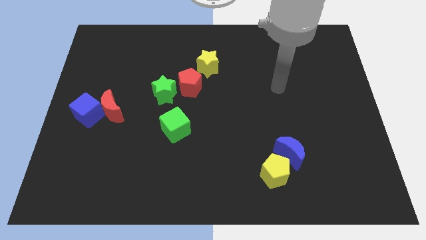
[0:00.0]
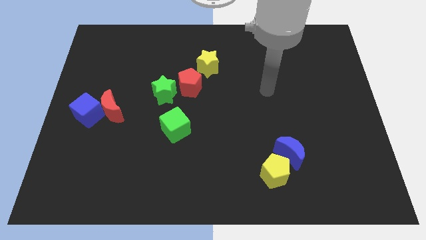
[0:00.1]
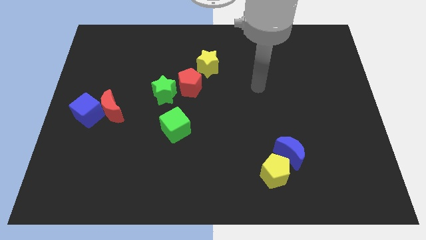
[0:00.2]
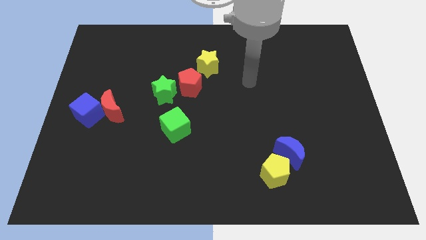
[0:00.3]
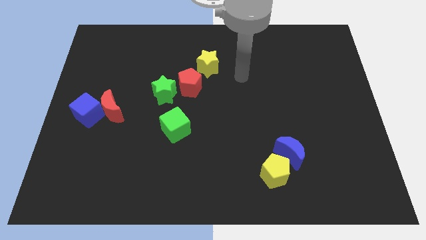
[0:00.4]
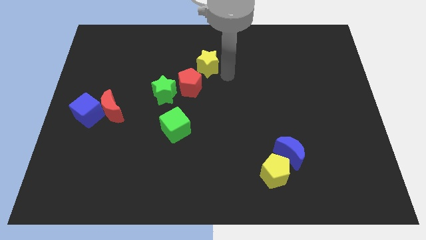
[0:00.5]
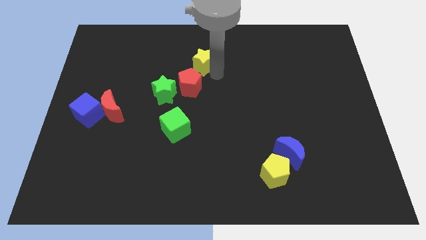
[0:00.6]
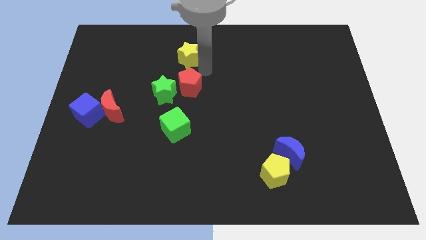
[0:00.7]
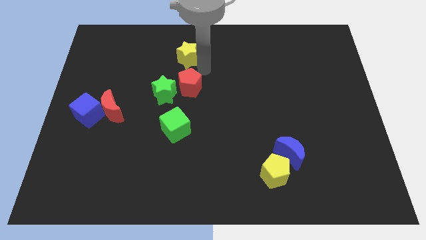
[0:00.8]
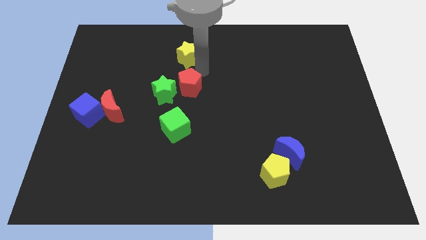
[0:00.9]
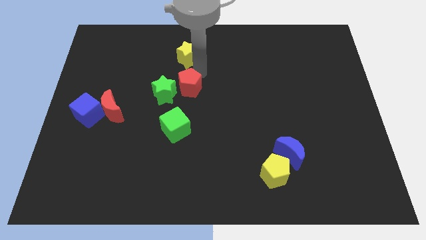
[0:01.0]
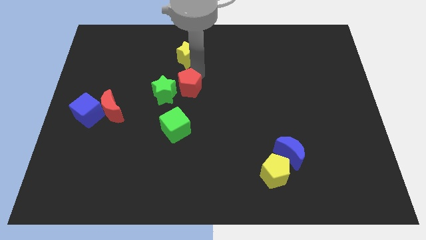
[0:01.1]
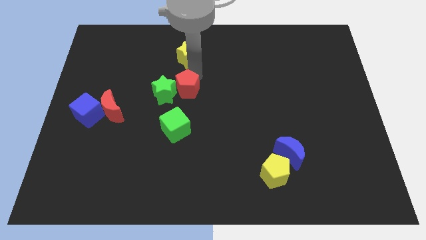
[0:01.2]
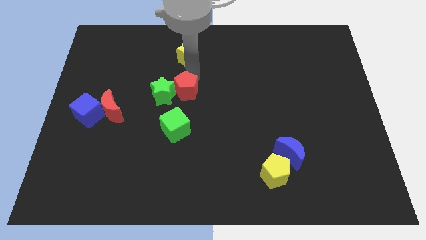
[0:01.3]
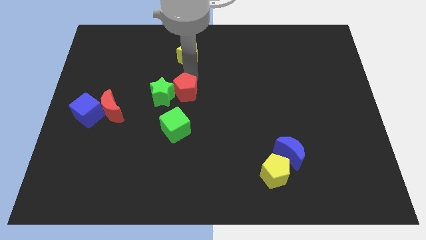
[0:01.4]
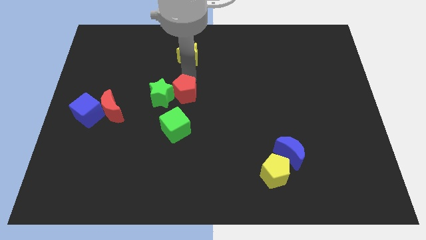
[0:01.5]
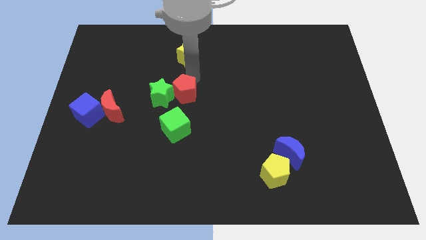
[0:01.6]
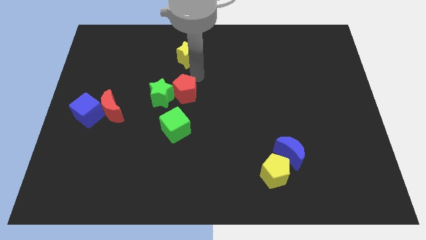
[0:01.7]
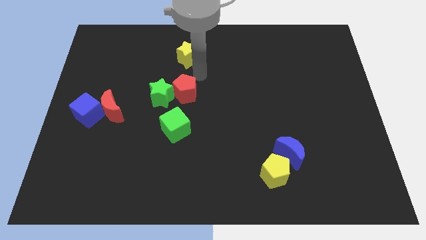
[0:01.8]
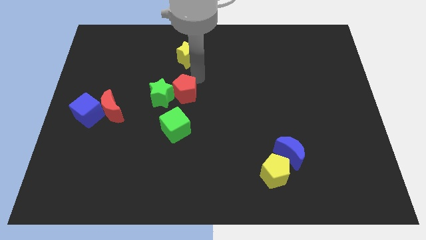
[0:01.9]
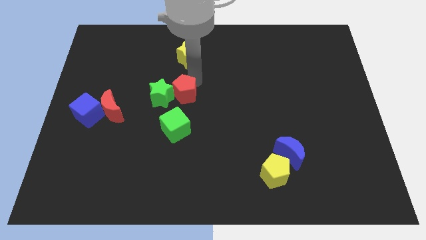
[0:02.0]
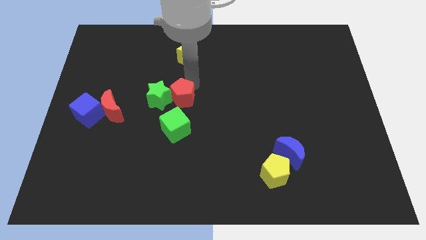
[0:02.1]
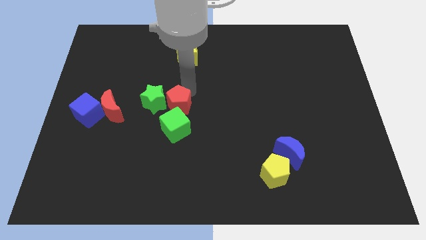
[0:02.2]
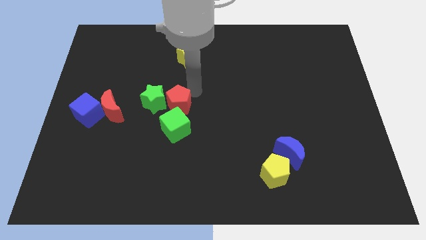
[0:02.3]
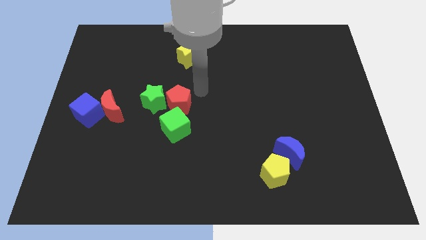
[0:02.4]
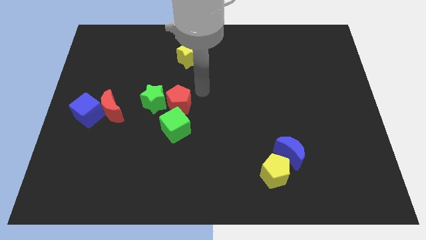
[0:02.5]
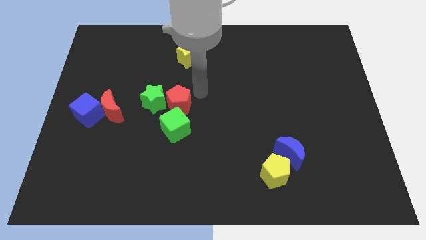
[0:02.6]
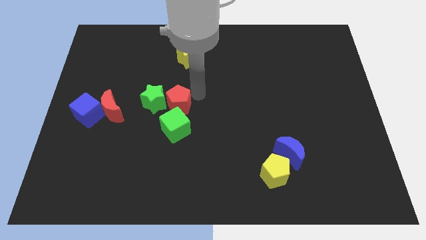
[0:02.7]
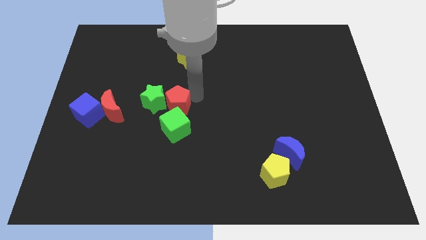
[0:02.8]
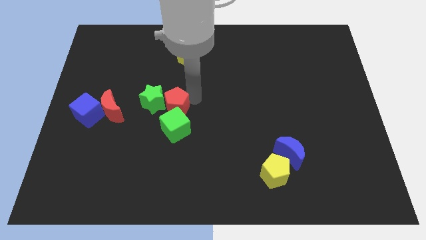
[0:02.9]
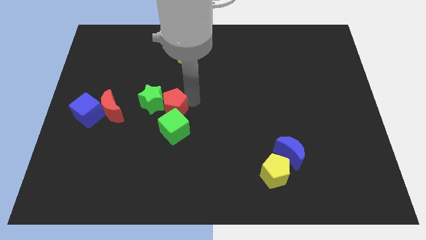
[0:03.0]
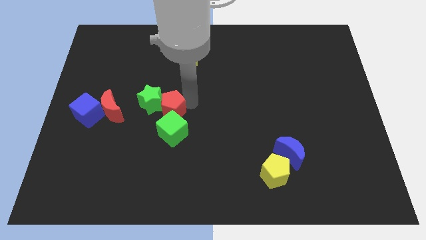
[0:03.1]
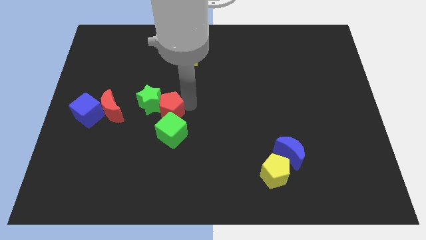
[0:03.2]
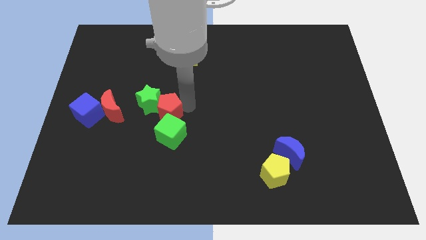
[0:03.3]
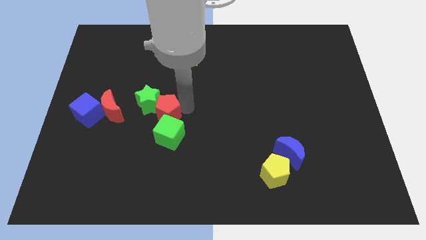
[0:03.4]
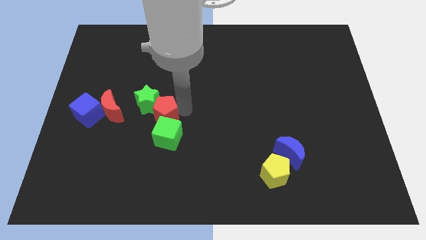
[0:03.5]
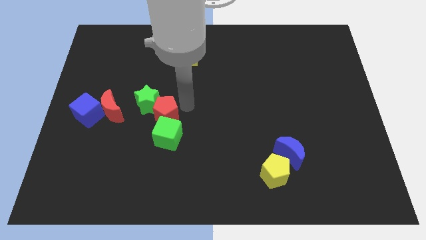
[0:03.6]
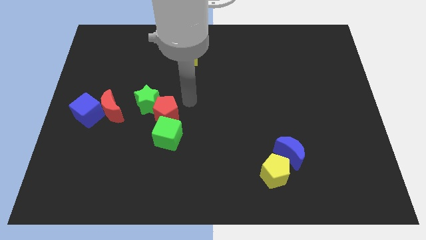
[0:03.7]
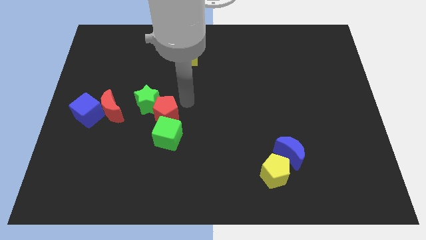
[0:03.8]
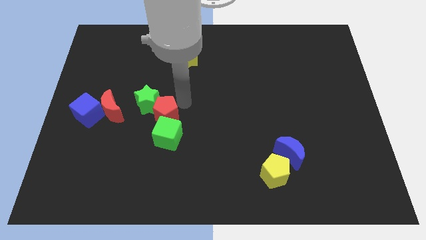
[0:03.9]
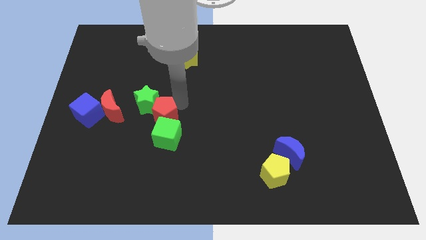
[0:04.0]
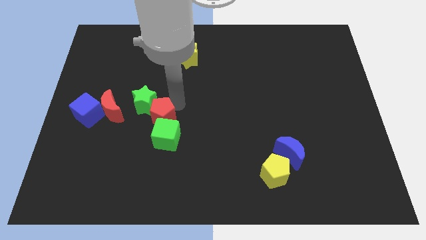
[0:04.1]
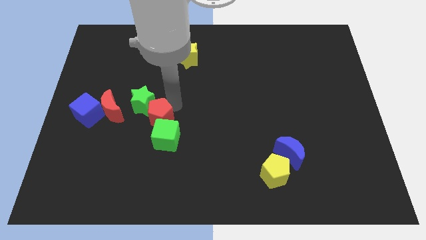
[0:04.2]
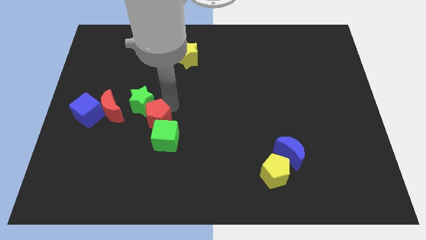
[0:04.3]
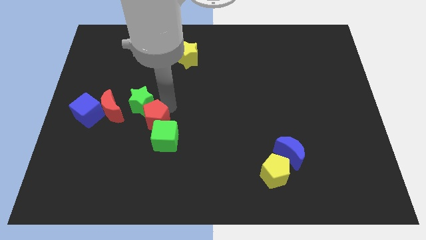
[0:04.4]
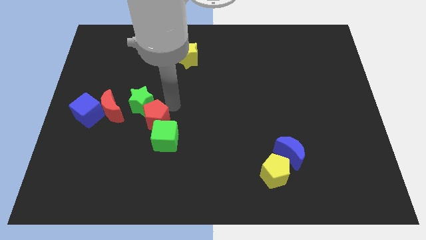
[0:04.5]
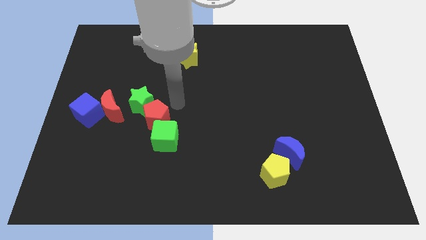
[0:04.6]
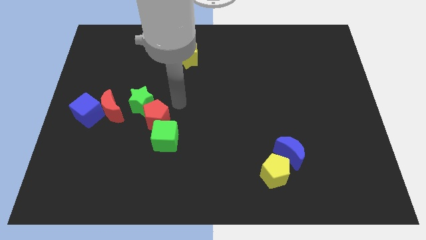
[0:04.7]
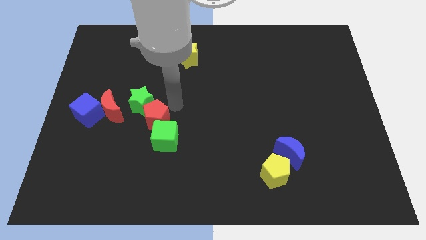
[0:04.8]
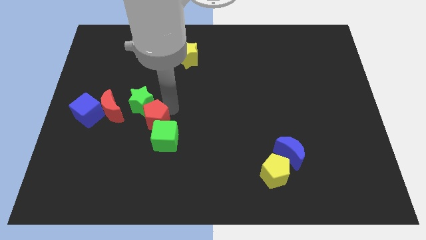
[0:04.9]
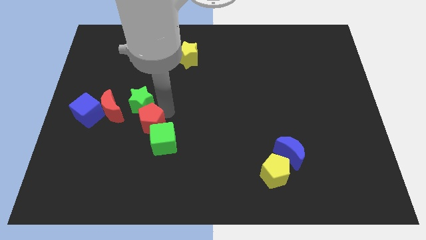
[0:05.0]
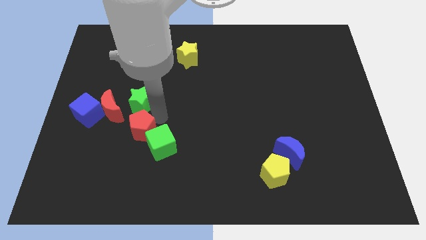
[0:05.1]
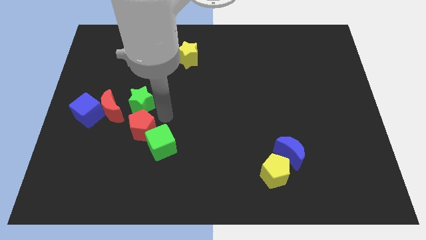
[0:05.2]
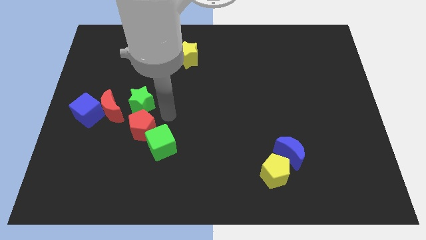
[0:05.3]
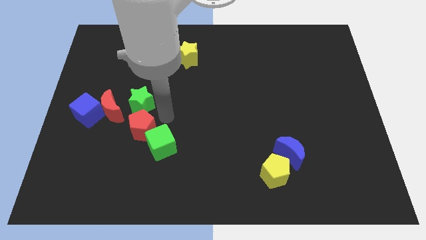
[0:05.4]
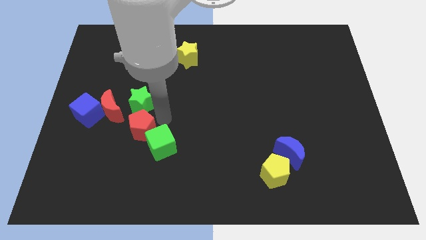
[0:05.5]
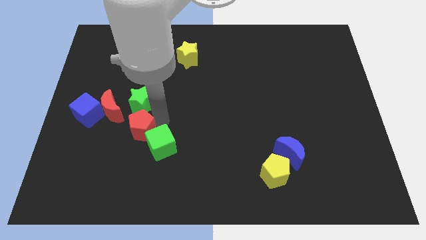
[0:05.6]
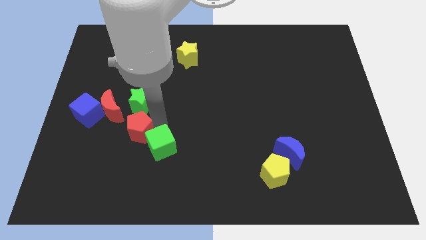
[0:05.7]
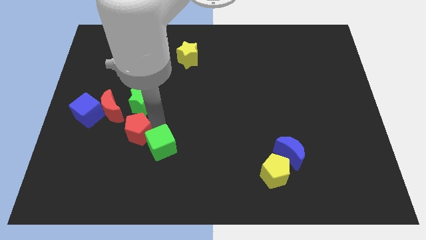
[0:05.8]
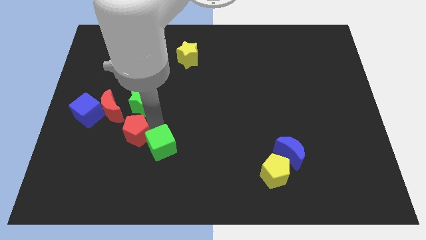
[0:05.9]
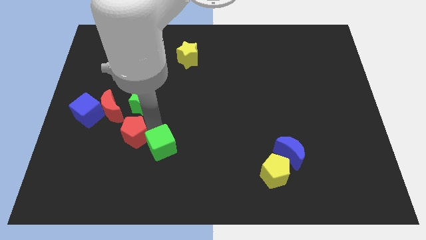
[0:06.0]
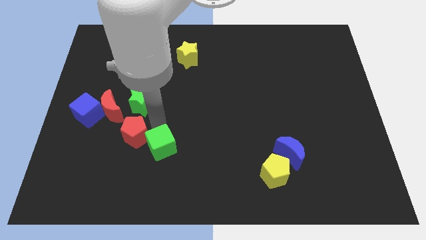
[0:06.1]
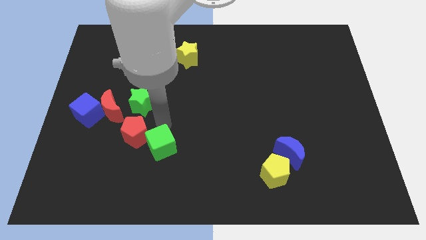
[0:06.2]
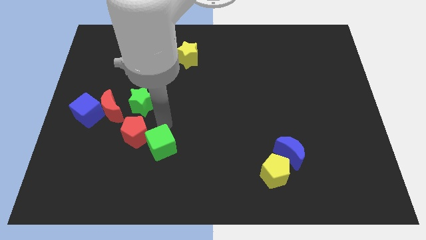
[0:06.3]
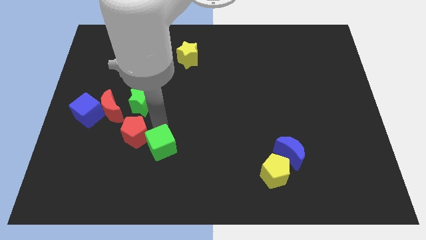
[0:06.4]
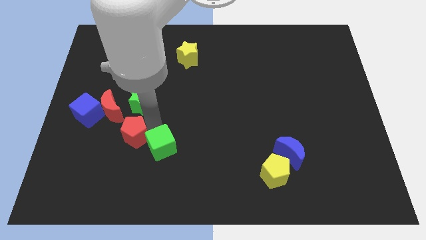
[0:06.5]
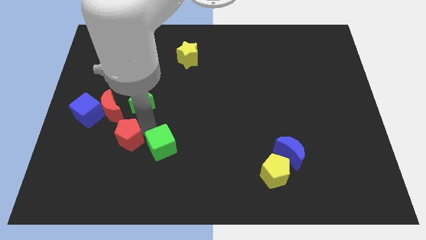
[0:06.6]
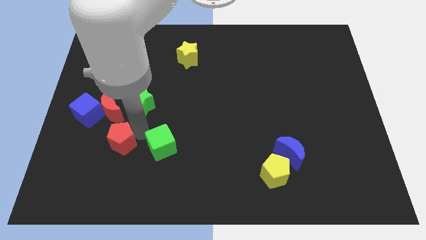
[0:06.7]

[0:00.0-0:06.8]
slide the red pentagon to the bottom of the red moon

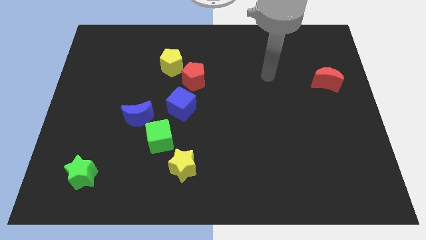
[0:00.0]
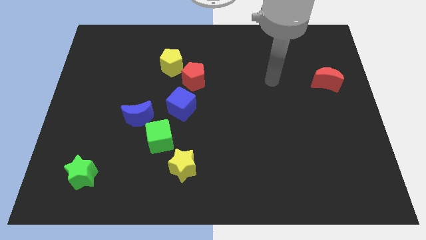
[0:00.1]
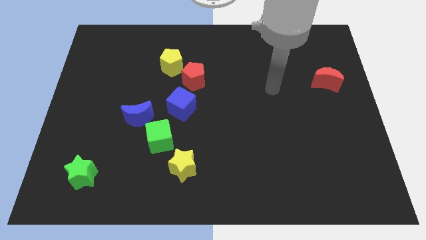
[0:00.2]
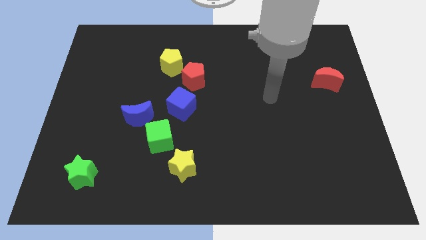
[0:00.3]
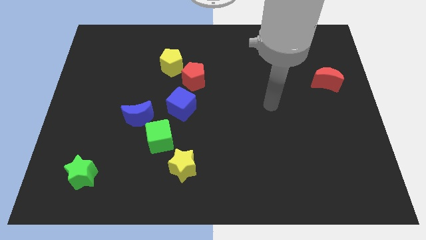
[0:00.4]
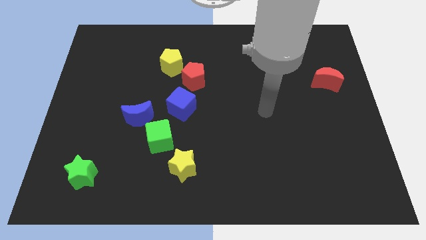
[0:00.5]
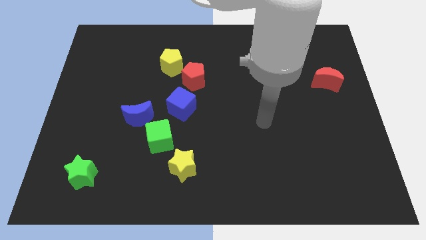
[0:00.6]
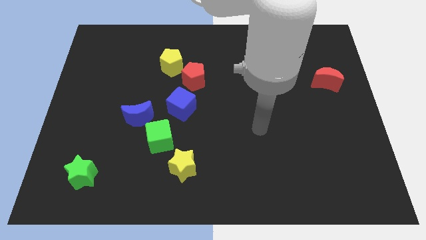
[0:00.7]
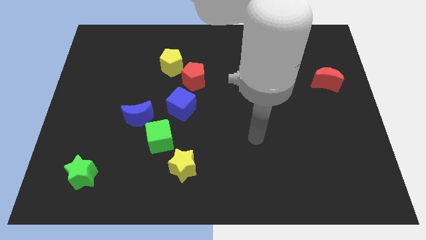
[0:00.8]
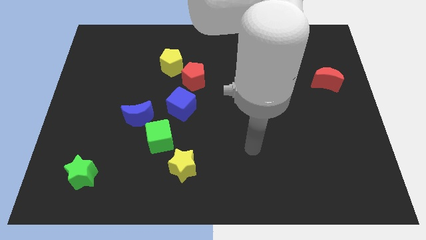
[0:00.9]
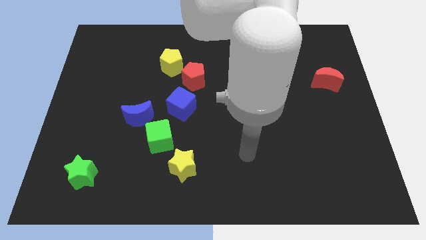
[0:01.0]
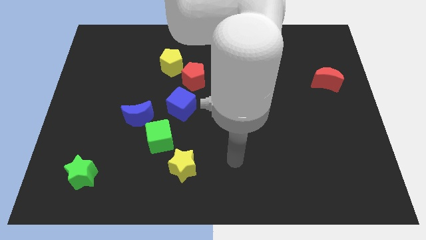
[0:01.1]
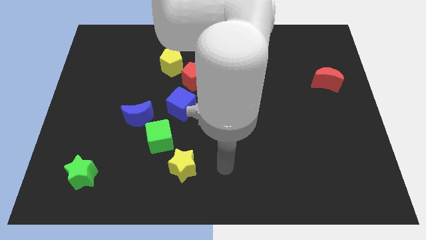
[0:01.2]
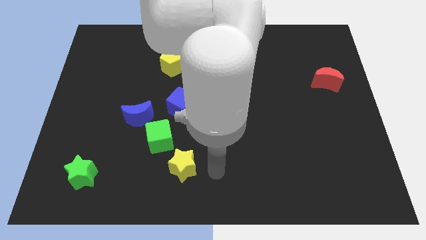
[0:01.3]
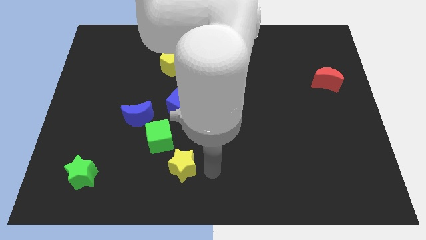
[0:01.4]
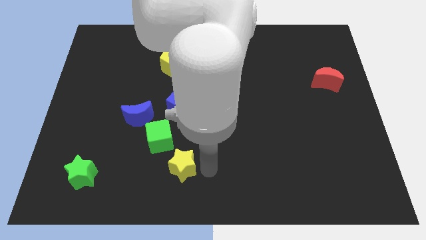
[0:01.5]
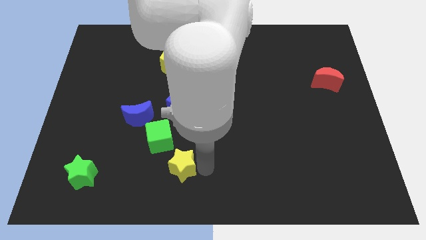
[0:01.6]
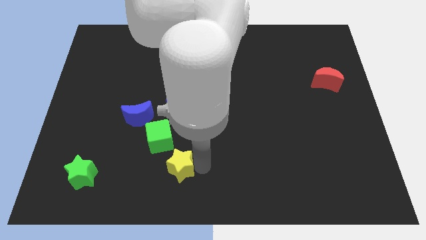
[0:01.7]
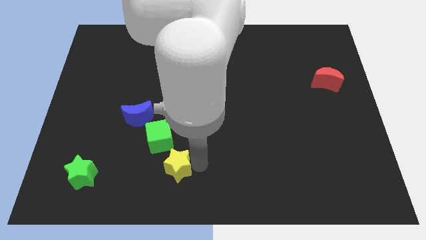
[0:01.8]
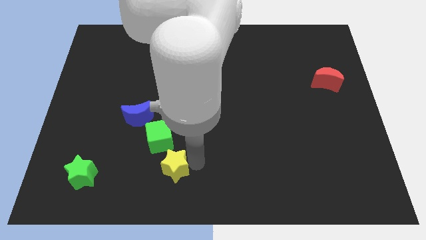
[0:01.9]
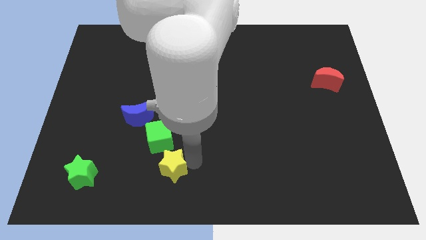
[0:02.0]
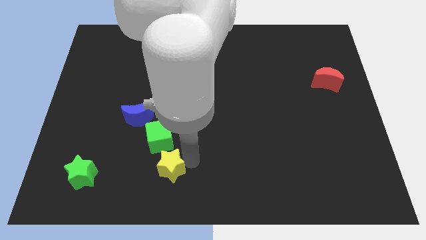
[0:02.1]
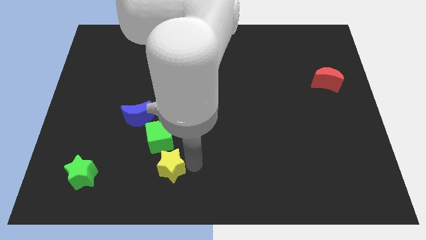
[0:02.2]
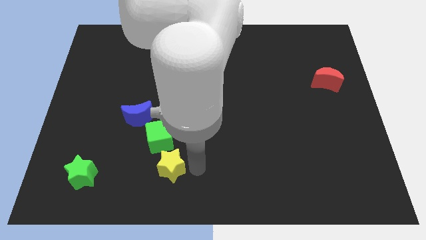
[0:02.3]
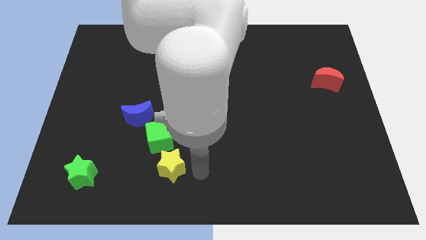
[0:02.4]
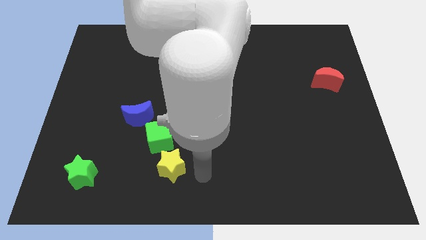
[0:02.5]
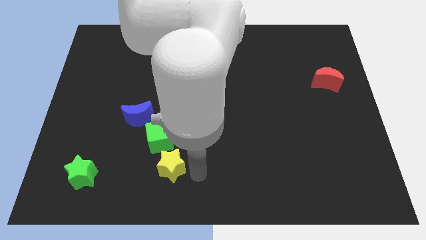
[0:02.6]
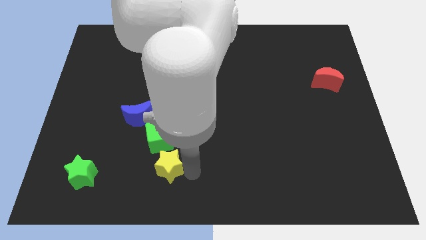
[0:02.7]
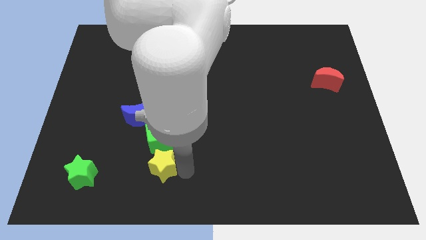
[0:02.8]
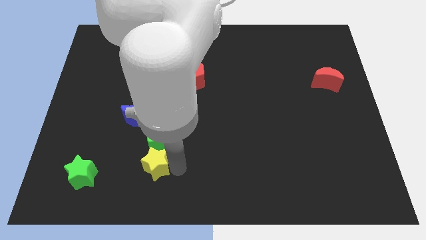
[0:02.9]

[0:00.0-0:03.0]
slide the yellow star to the right side of the green star
